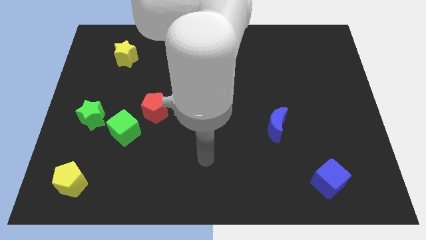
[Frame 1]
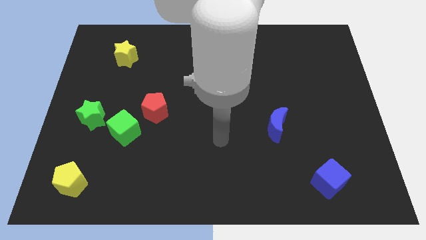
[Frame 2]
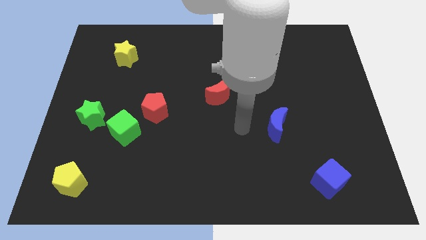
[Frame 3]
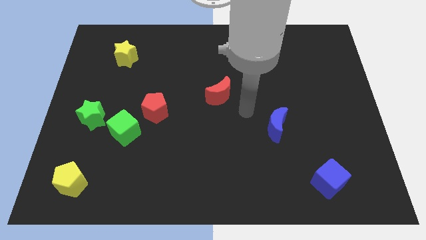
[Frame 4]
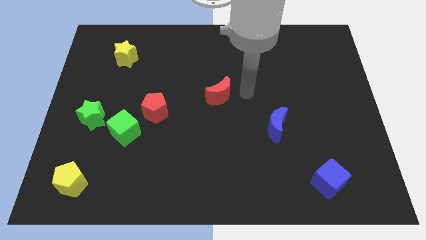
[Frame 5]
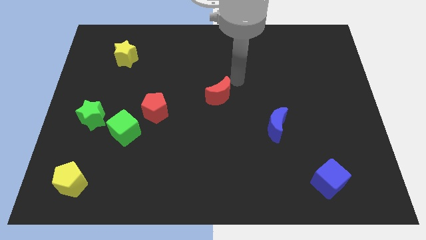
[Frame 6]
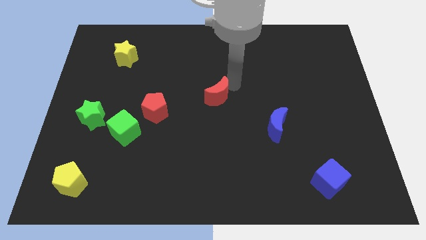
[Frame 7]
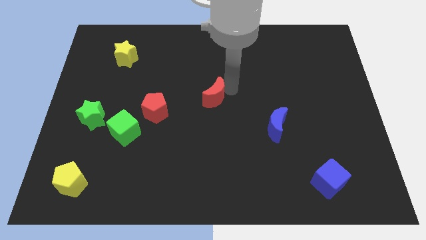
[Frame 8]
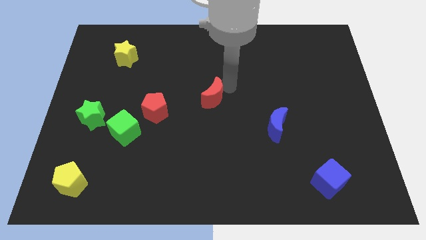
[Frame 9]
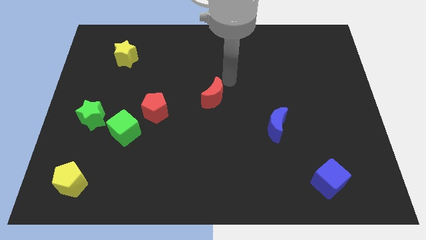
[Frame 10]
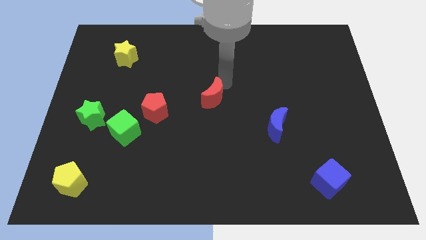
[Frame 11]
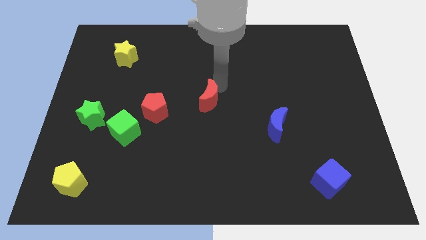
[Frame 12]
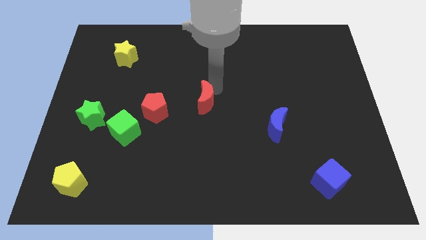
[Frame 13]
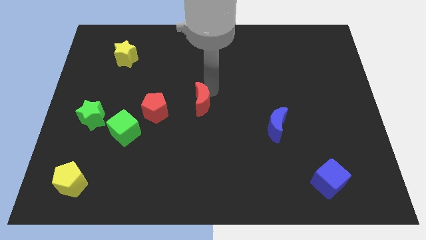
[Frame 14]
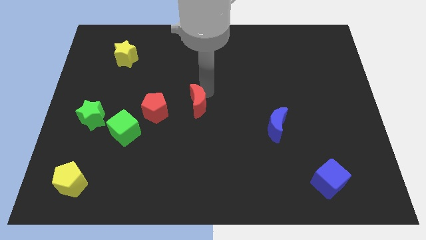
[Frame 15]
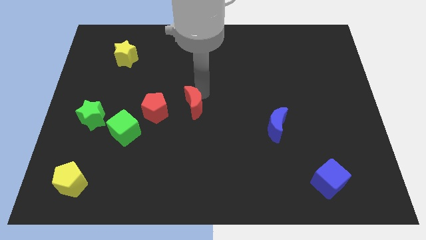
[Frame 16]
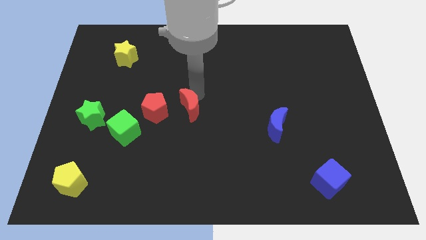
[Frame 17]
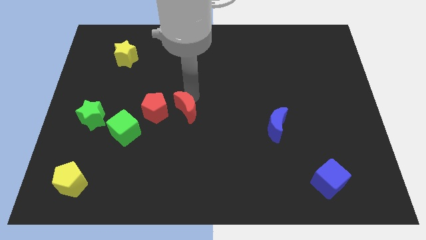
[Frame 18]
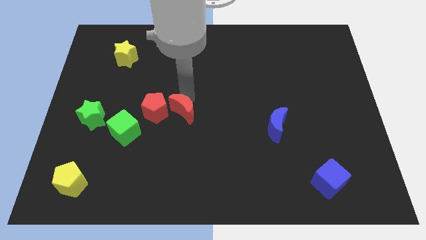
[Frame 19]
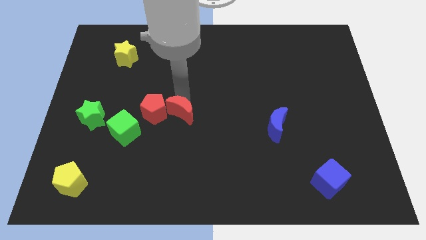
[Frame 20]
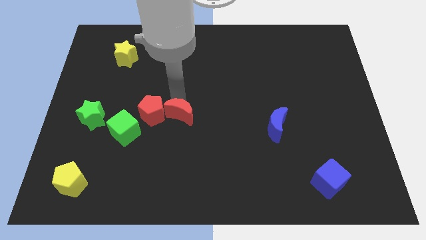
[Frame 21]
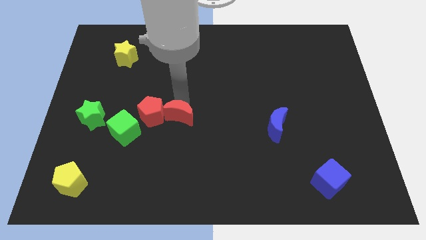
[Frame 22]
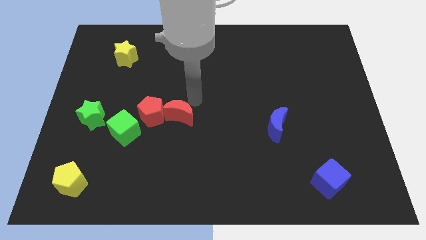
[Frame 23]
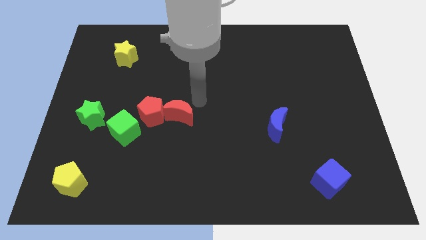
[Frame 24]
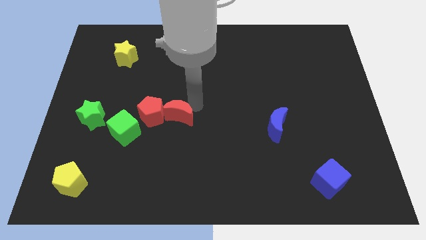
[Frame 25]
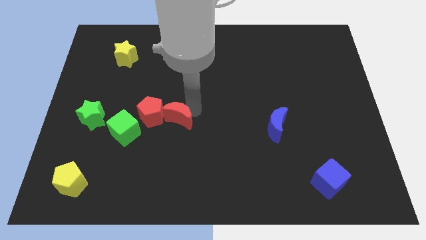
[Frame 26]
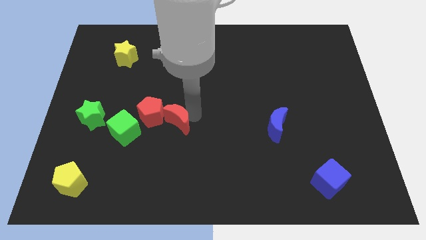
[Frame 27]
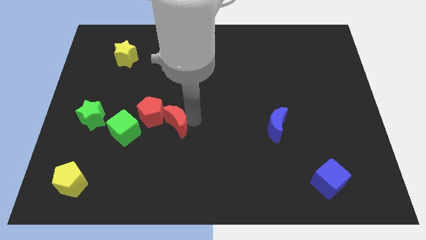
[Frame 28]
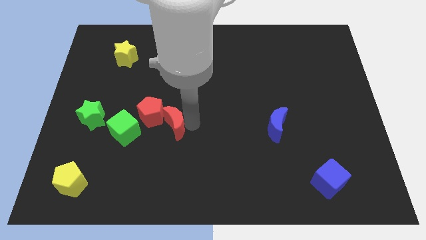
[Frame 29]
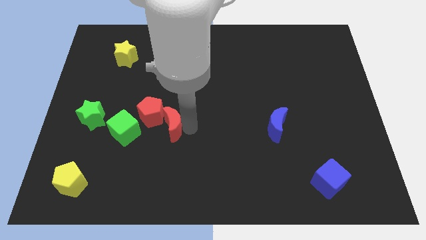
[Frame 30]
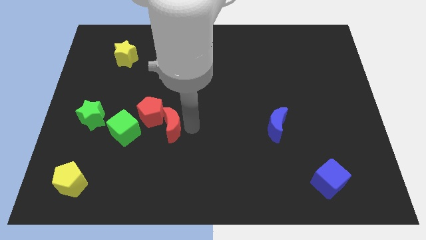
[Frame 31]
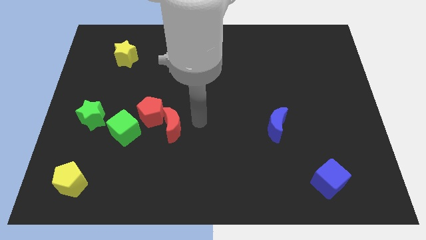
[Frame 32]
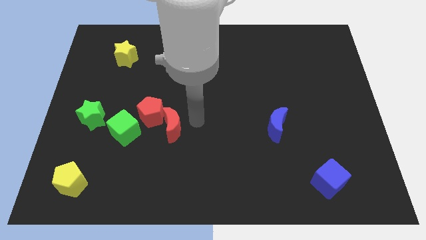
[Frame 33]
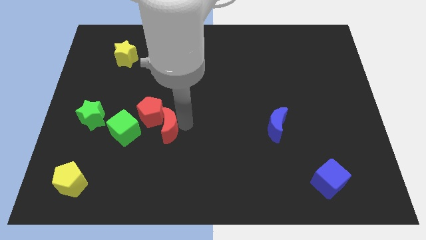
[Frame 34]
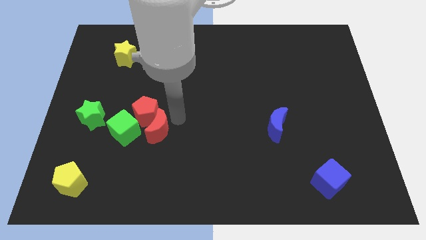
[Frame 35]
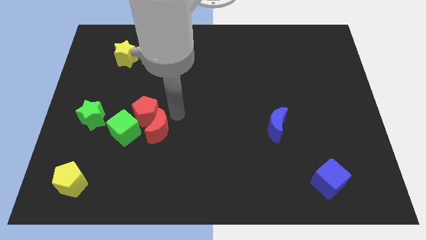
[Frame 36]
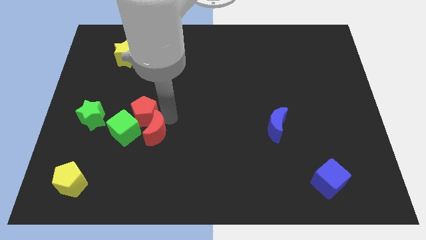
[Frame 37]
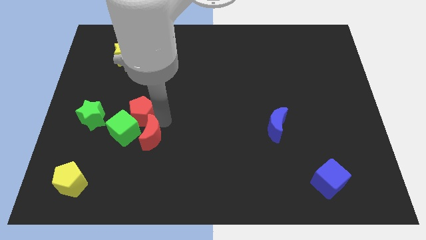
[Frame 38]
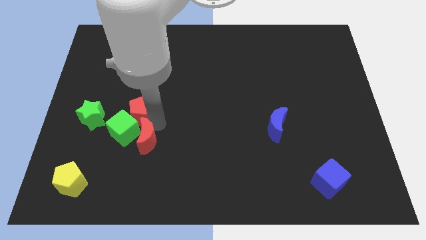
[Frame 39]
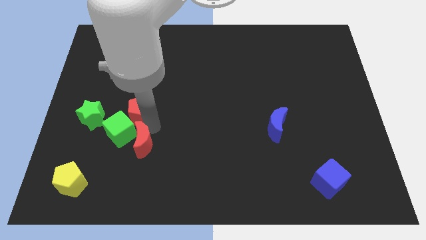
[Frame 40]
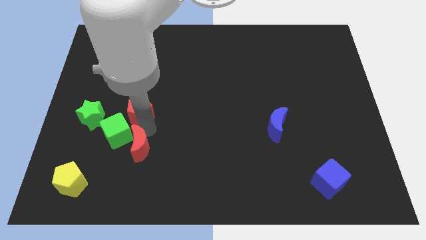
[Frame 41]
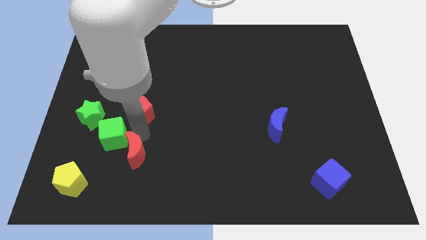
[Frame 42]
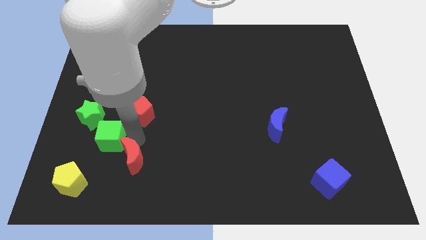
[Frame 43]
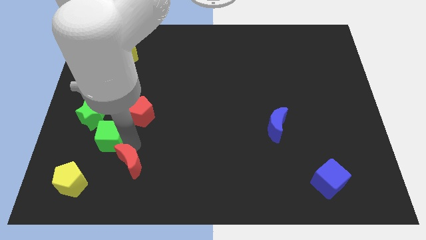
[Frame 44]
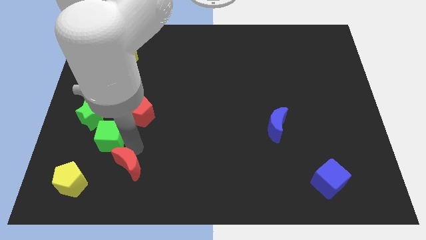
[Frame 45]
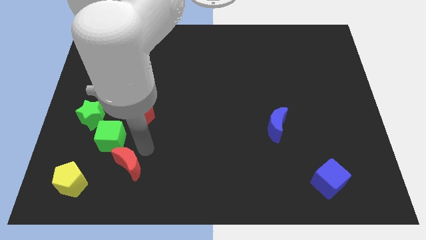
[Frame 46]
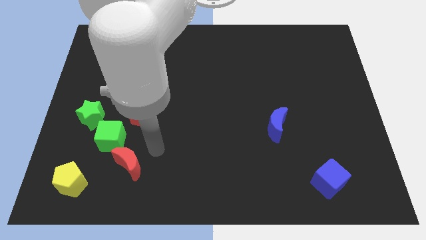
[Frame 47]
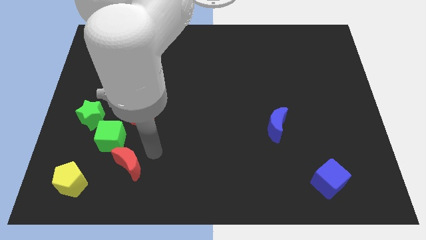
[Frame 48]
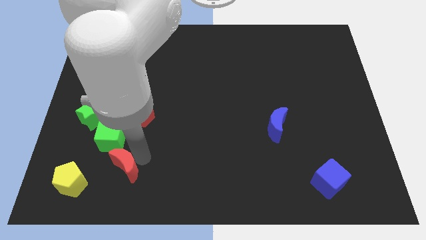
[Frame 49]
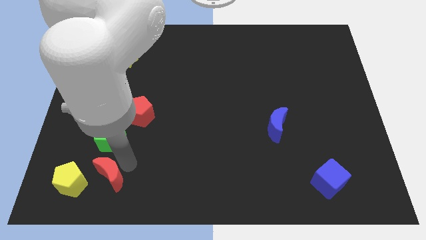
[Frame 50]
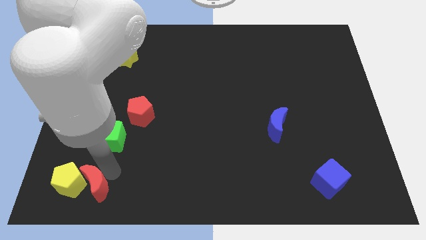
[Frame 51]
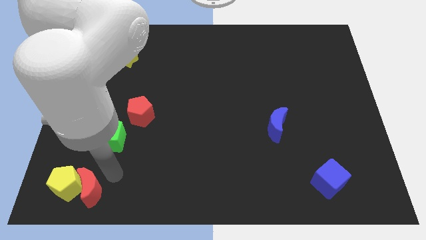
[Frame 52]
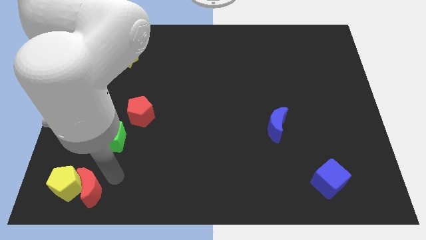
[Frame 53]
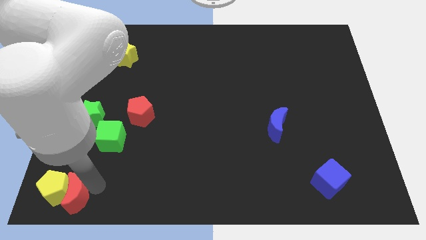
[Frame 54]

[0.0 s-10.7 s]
slide the red moon to the lower left corner
